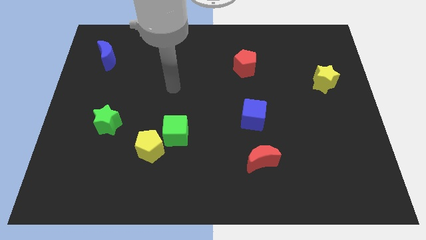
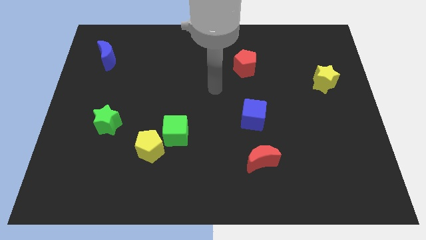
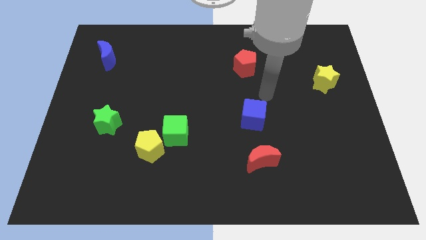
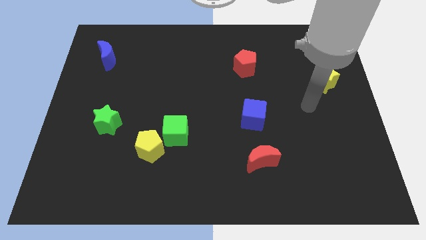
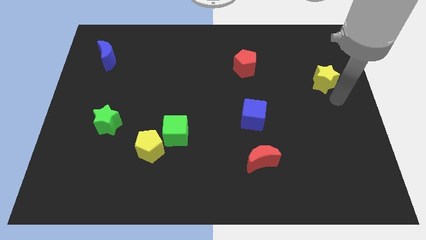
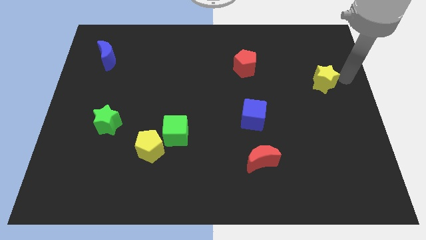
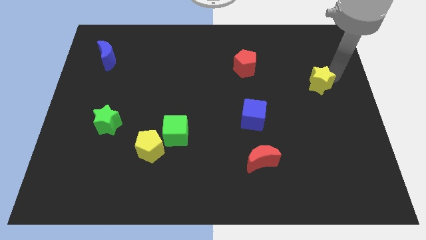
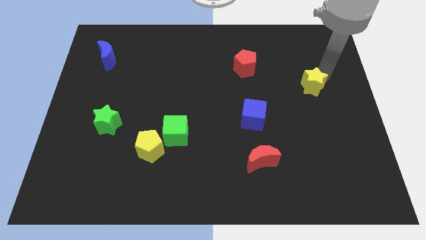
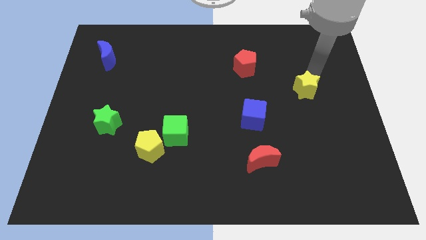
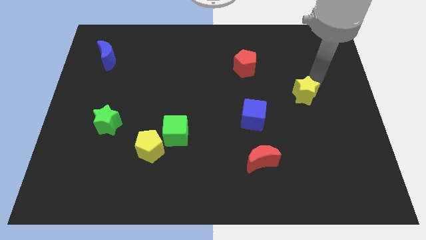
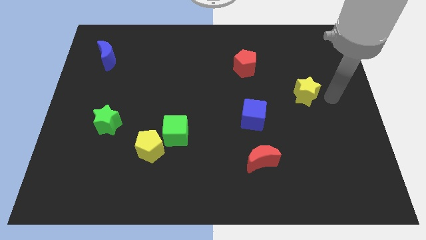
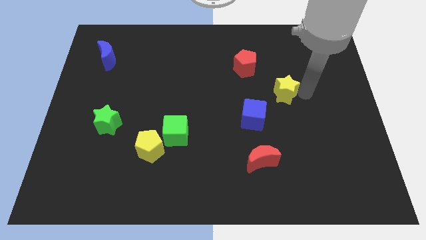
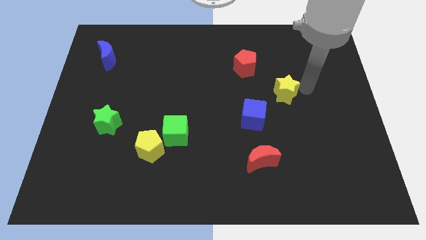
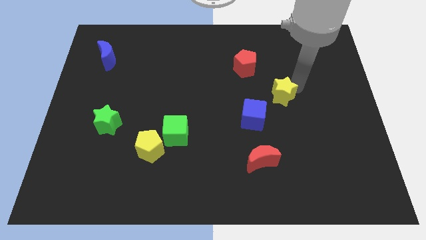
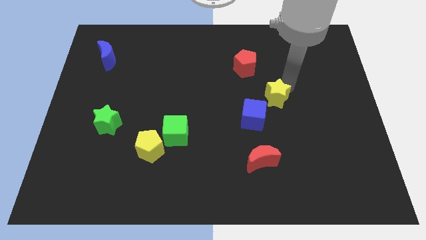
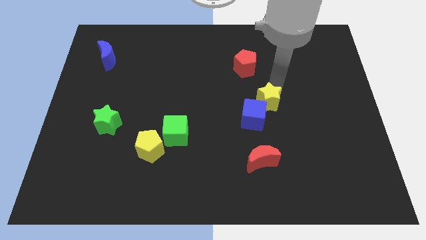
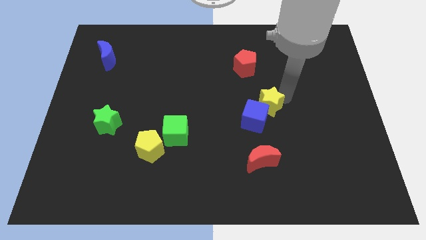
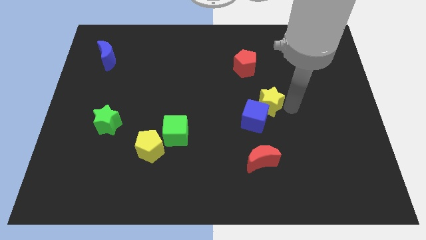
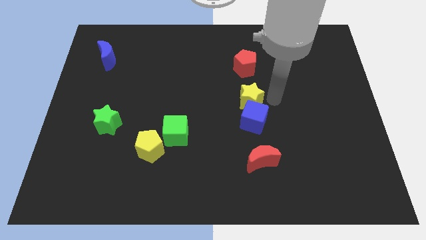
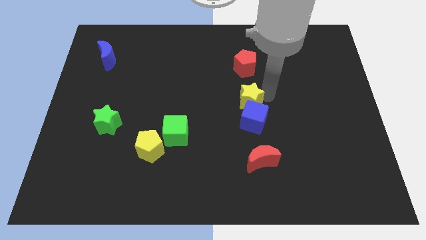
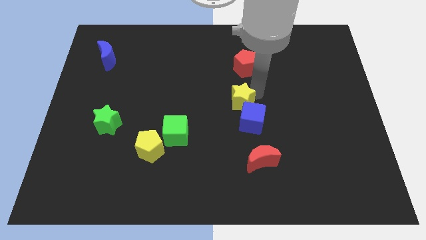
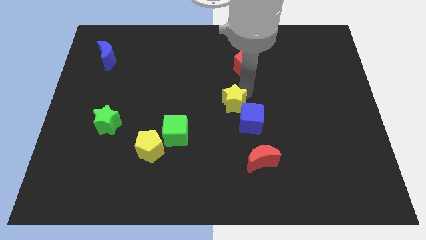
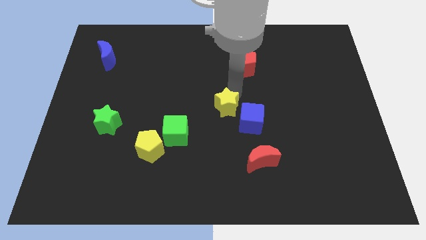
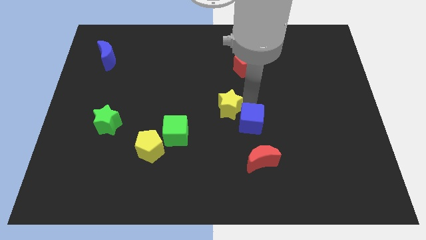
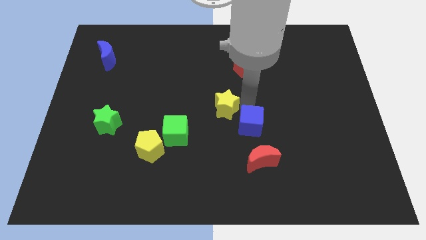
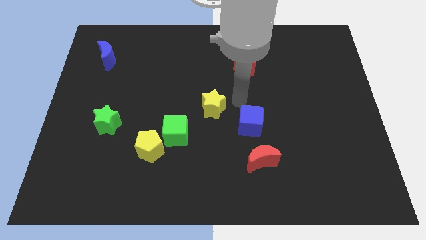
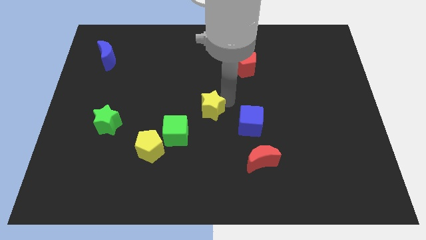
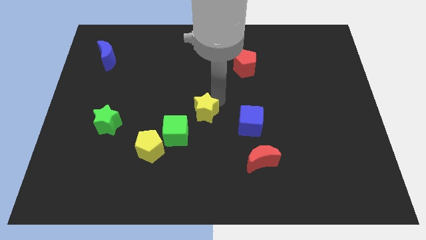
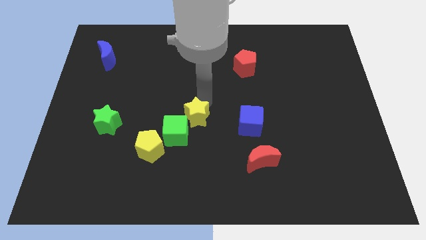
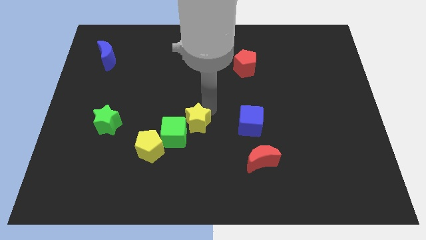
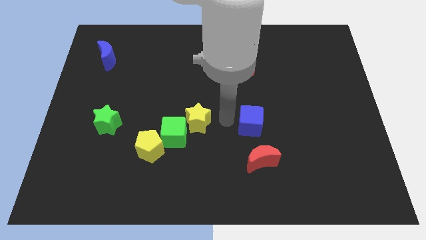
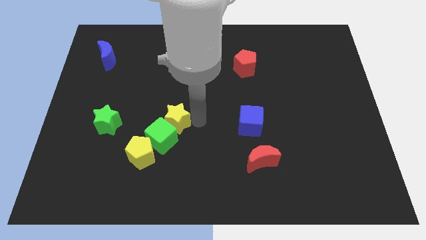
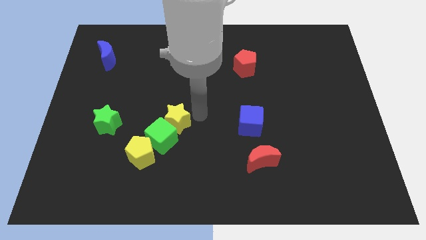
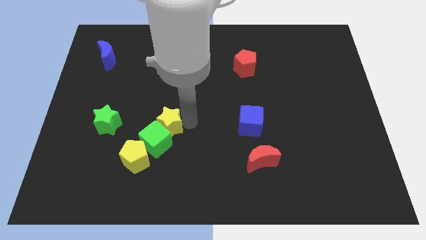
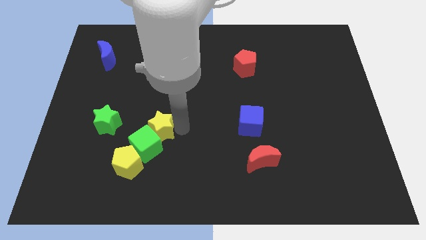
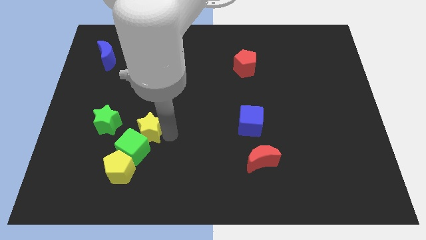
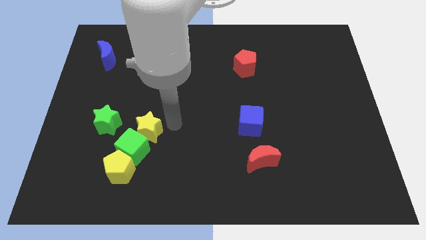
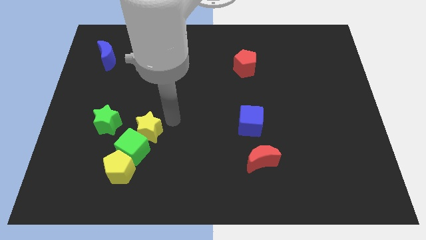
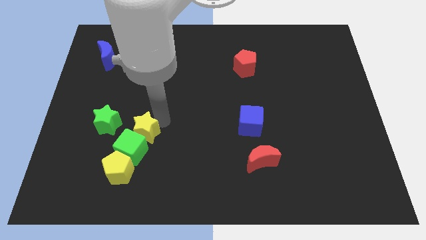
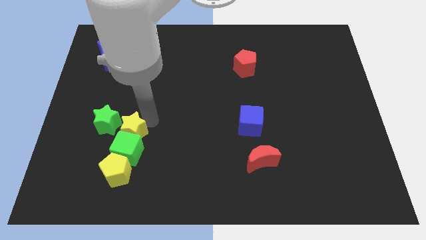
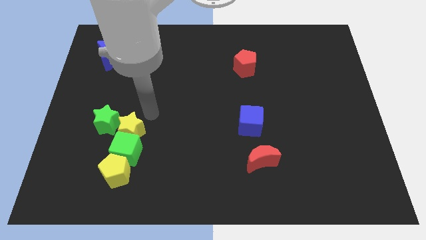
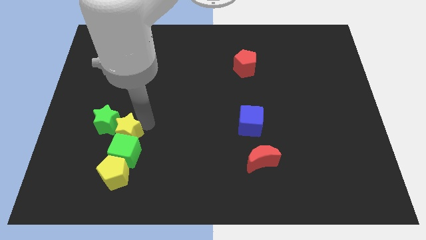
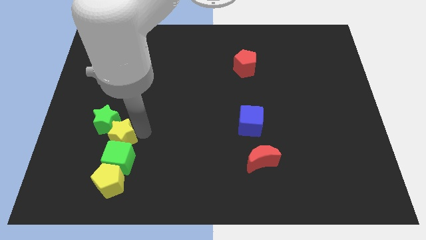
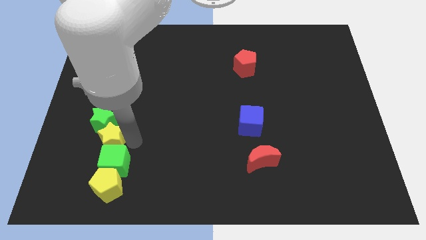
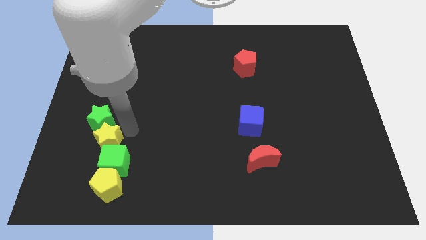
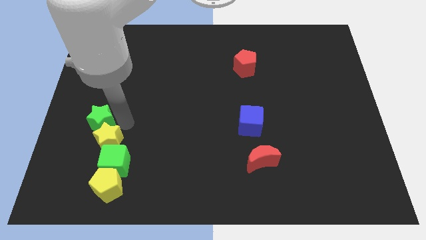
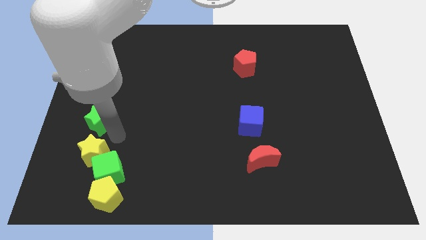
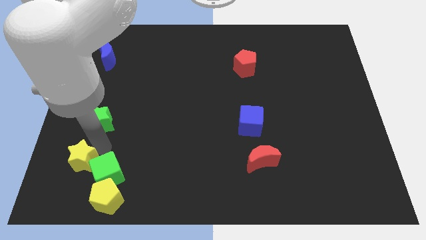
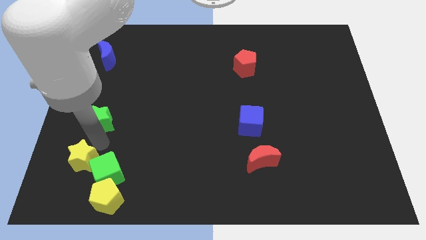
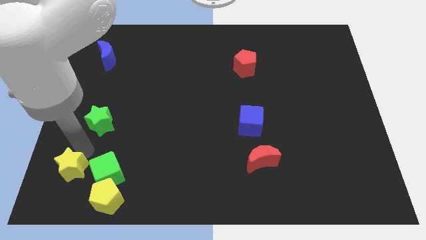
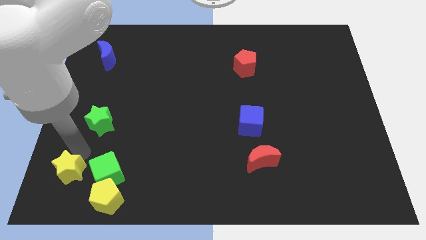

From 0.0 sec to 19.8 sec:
slide the yellow star to the bottom left corner

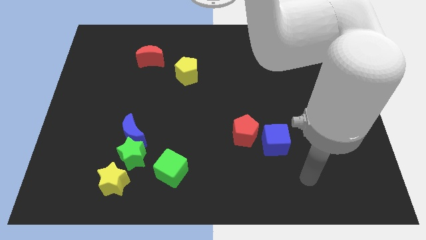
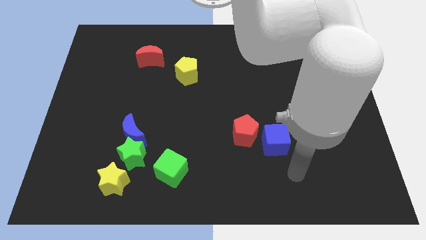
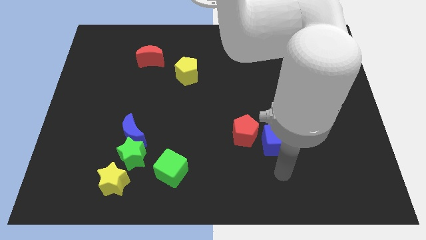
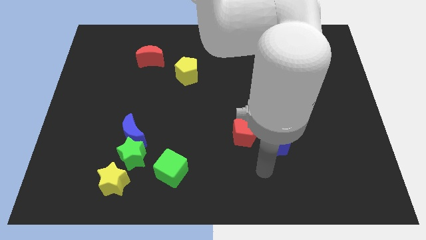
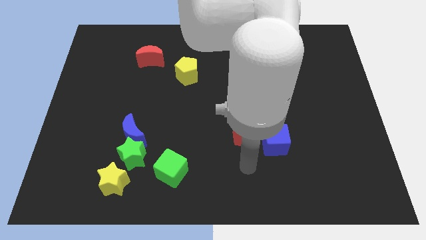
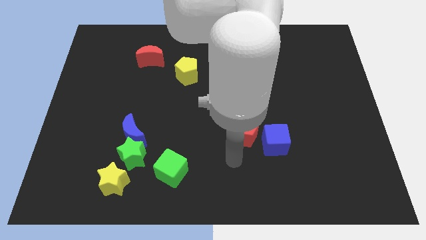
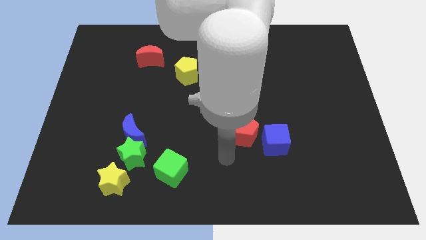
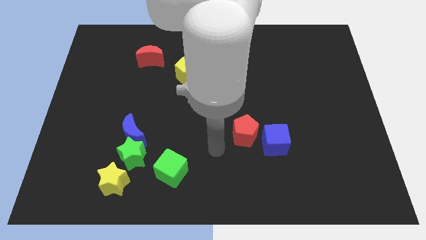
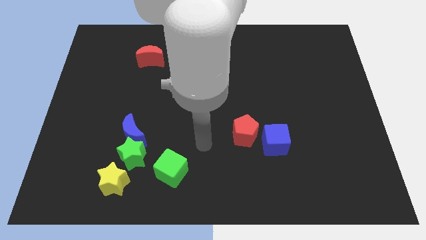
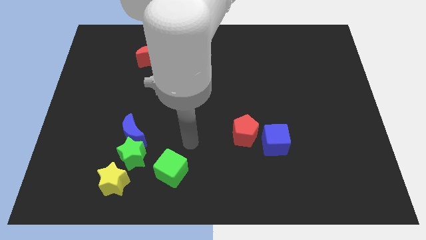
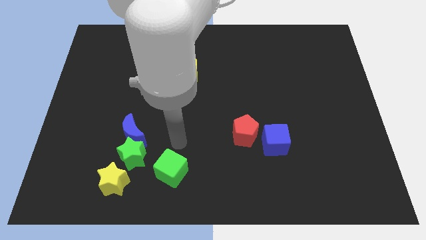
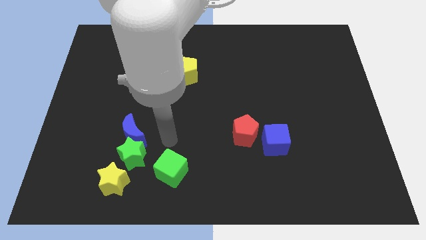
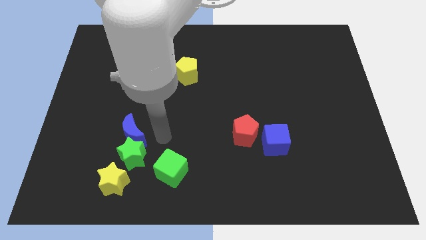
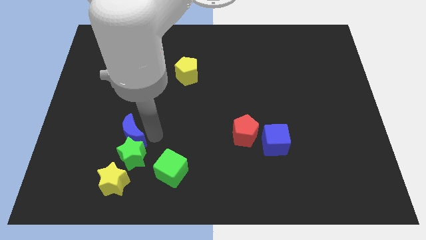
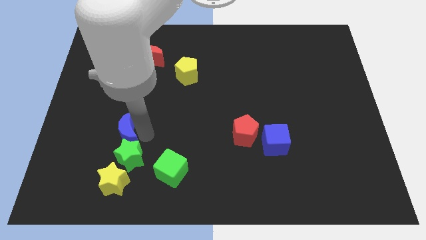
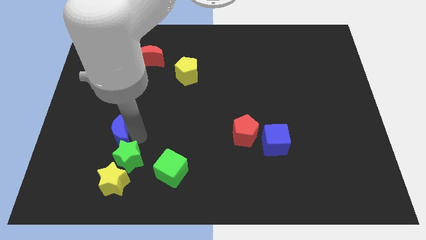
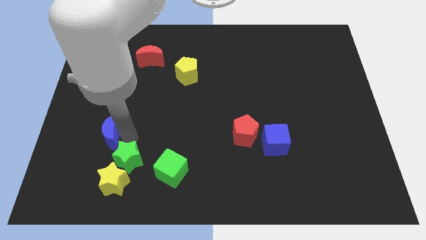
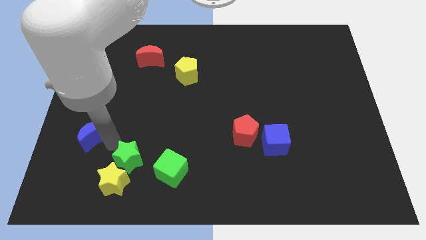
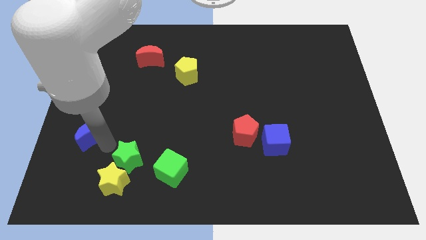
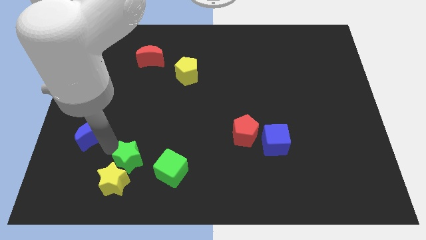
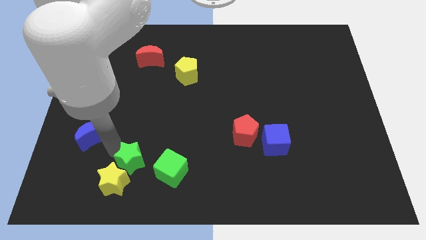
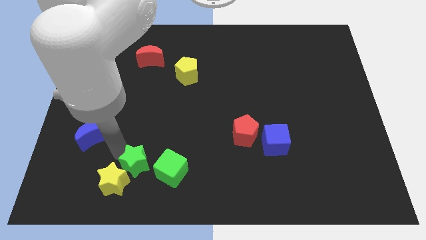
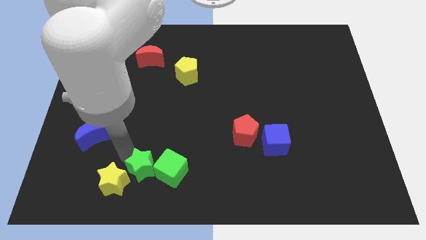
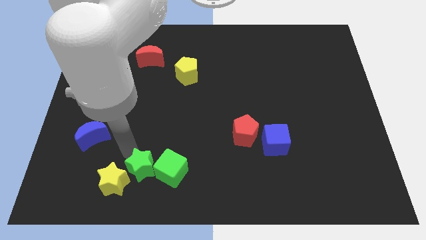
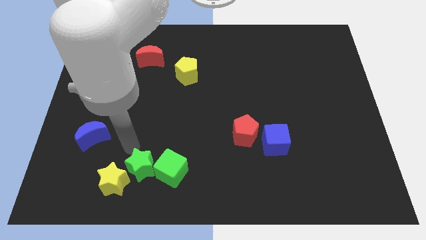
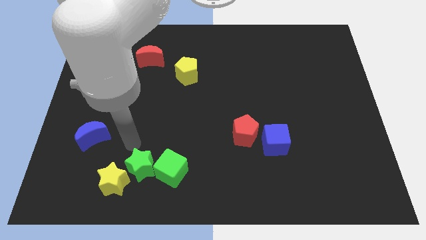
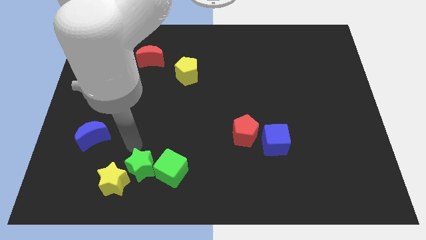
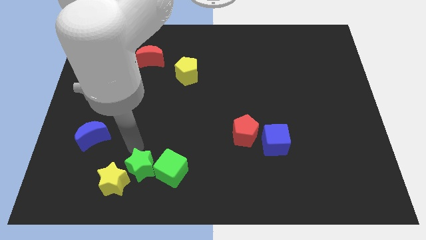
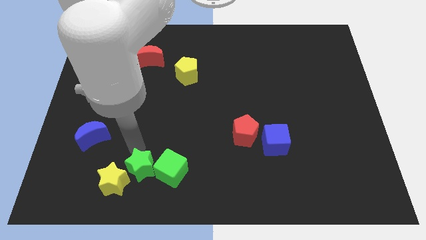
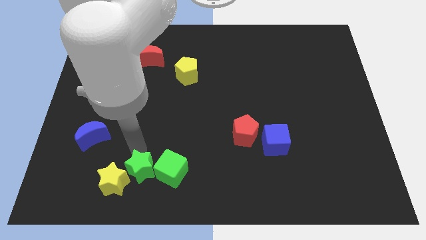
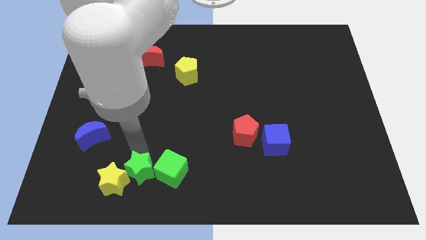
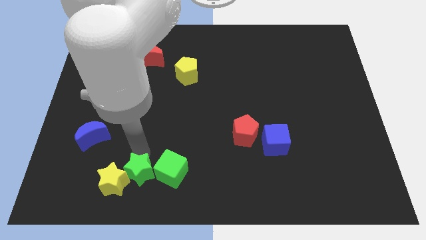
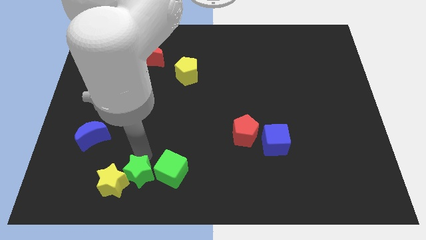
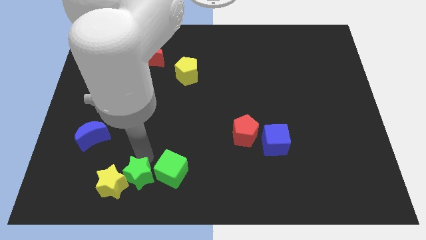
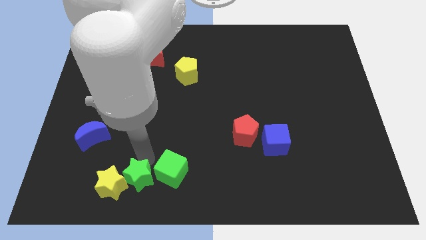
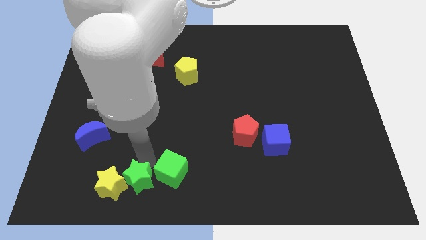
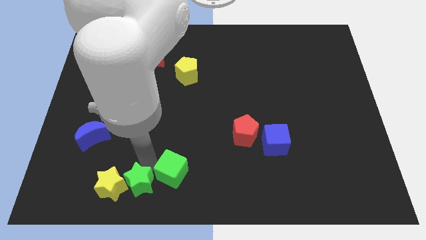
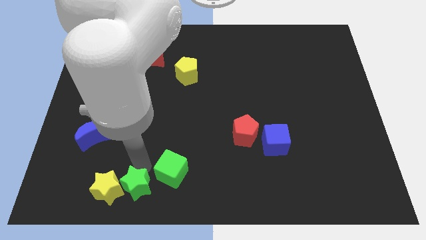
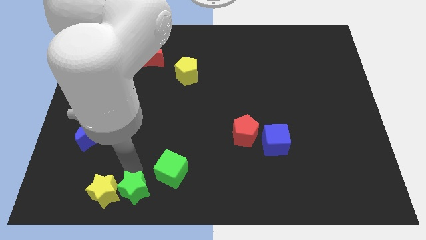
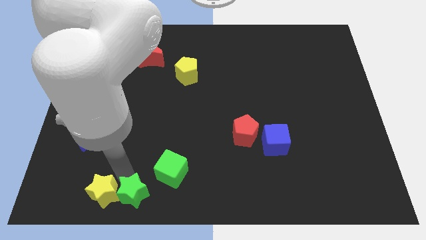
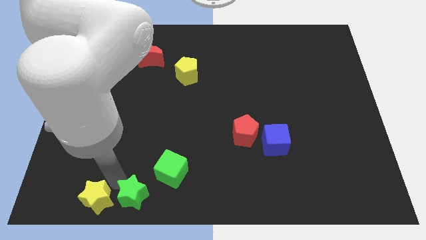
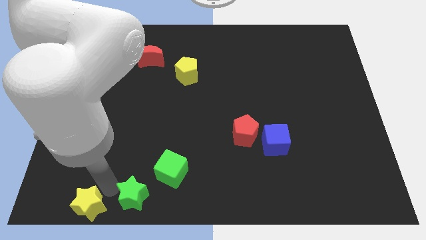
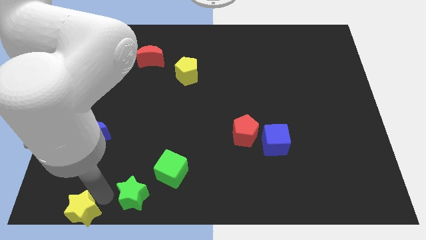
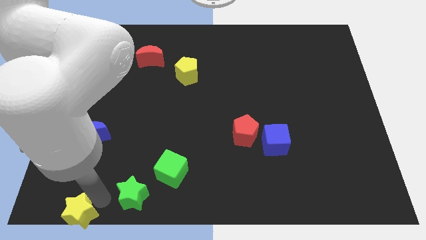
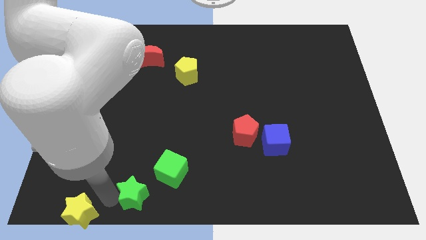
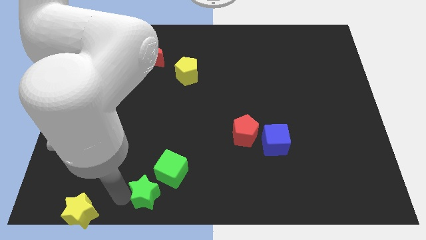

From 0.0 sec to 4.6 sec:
slide the green star to the bottom
